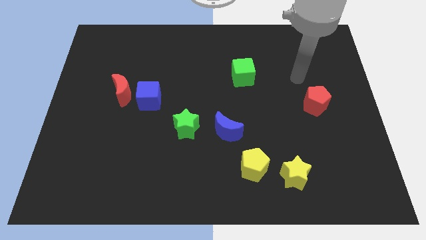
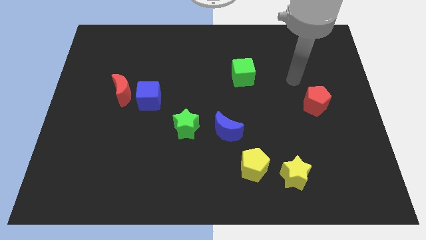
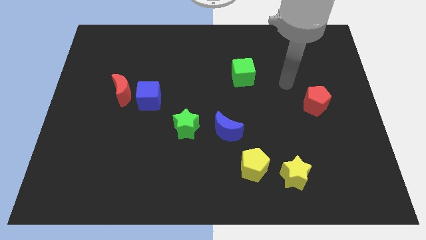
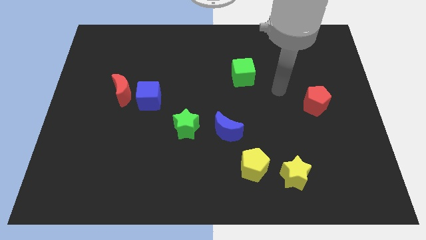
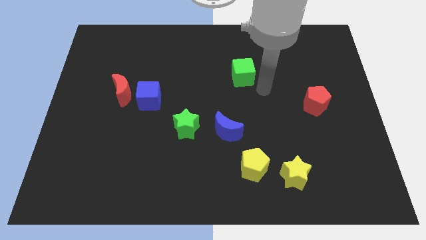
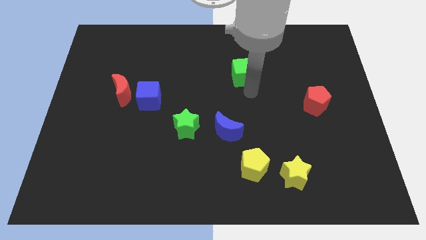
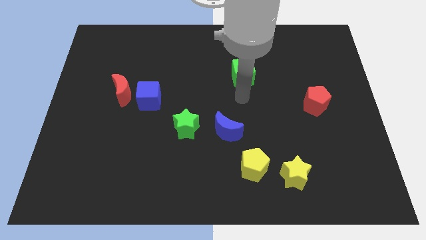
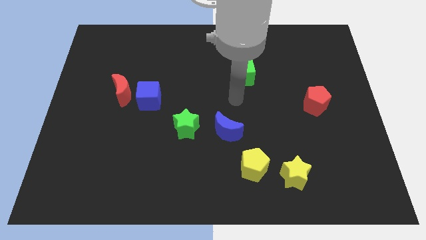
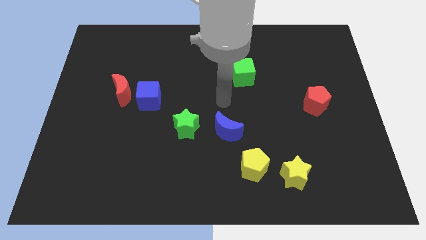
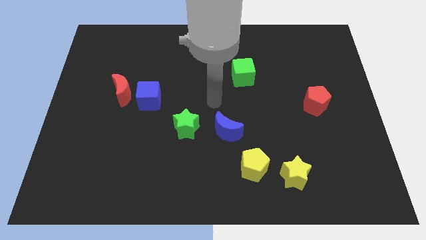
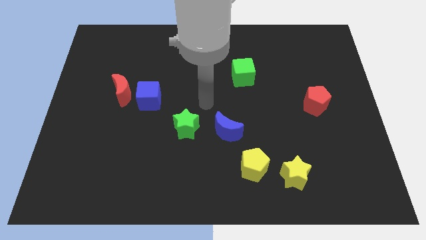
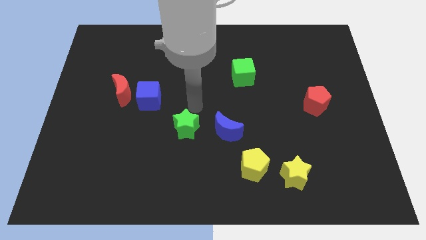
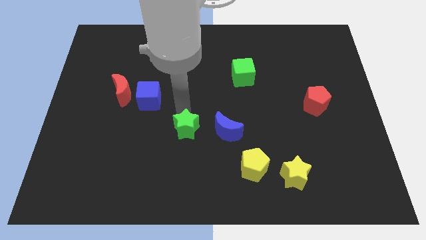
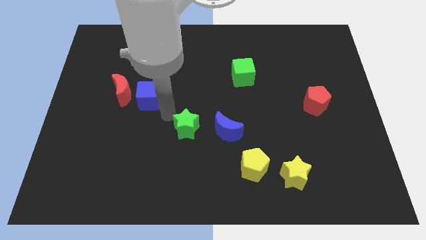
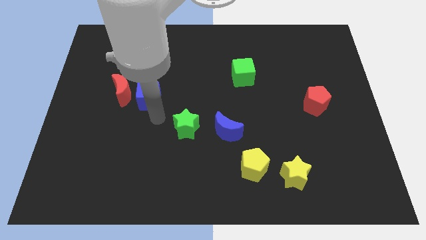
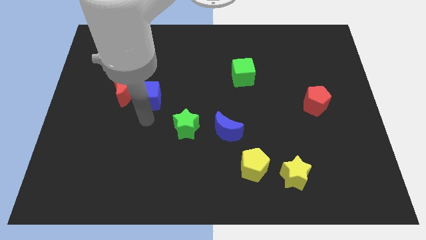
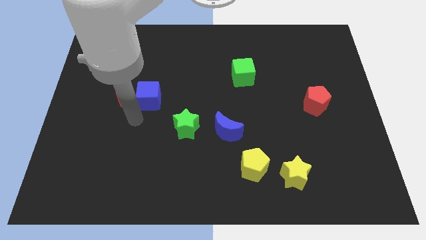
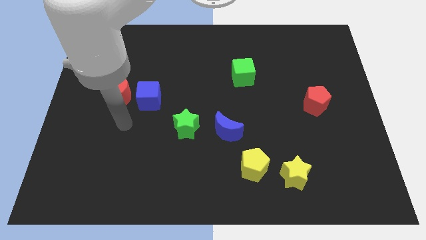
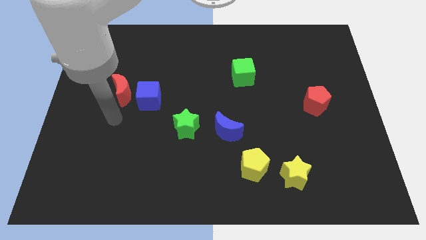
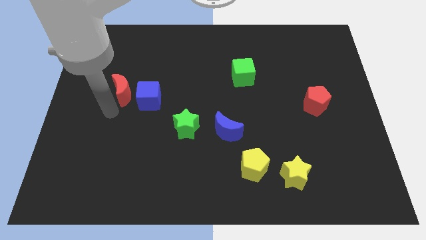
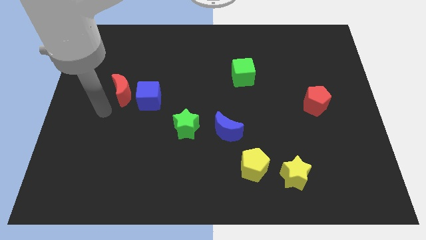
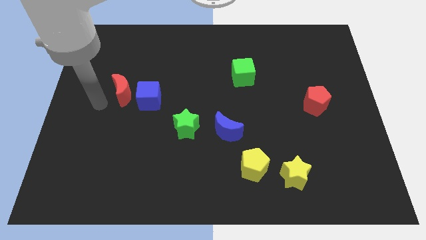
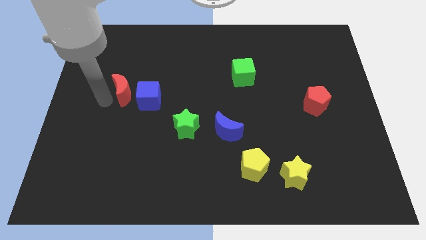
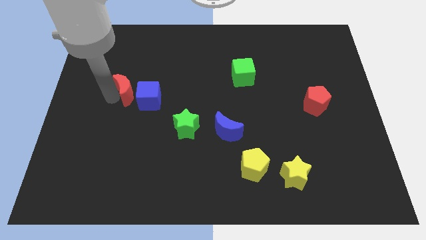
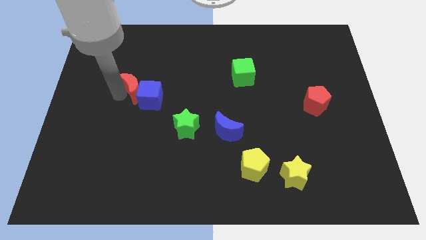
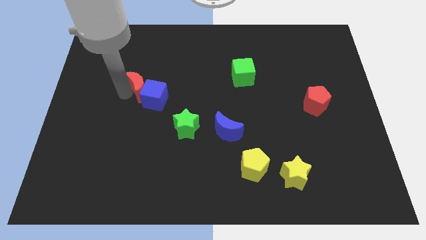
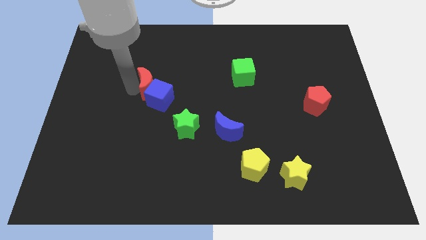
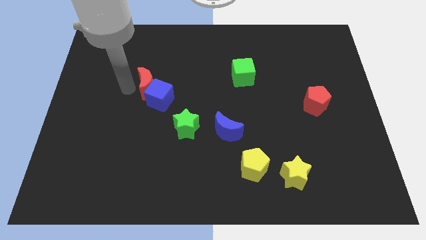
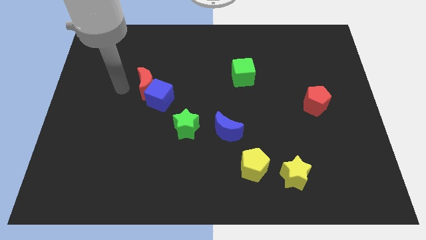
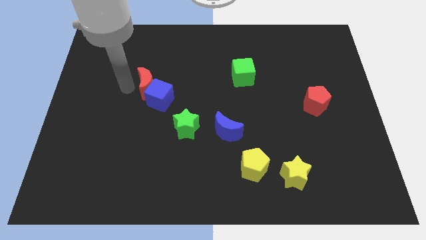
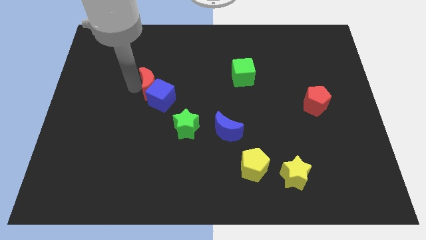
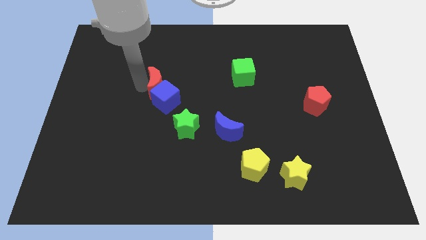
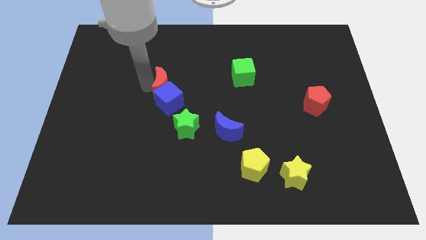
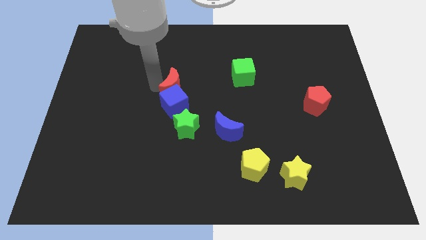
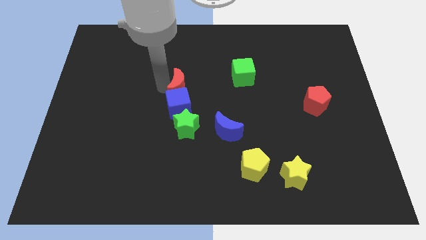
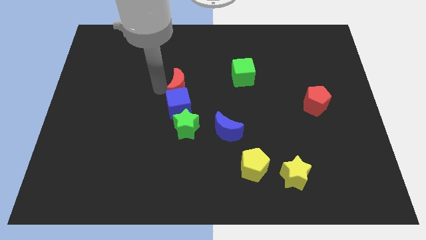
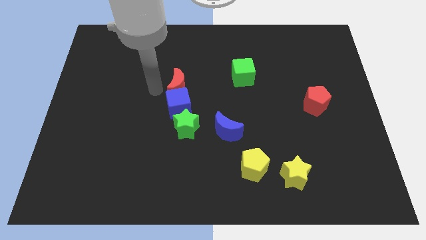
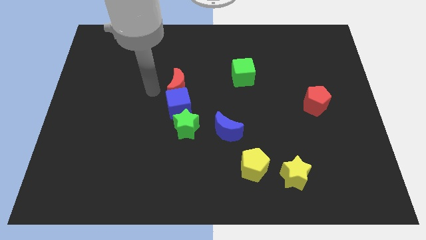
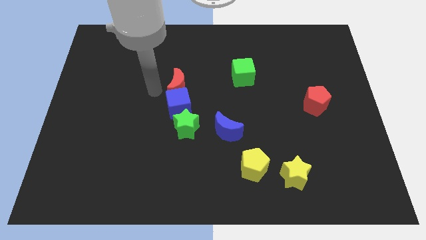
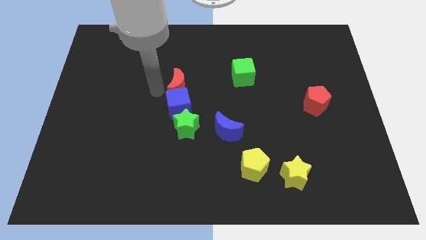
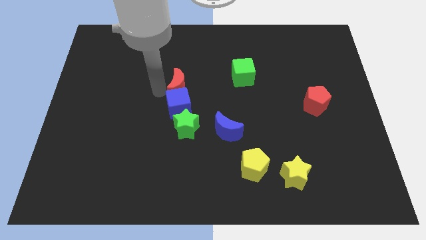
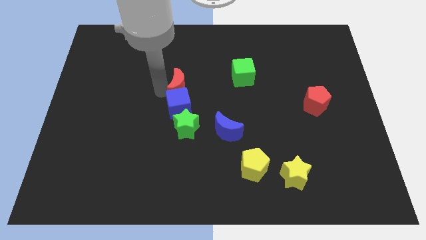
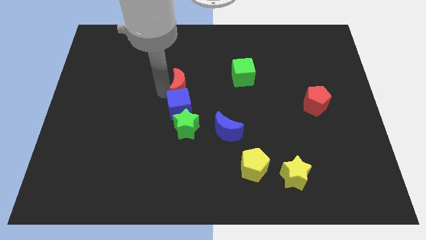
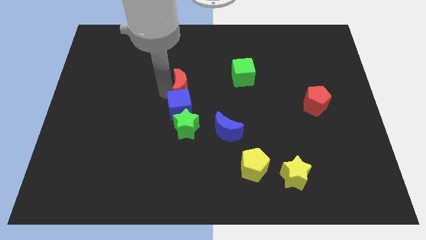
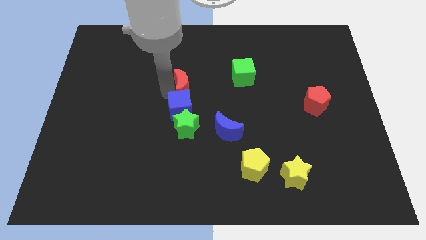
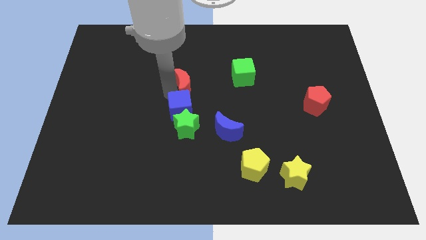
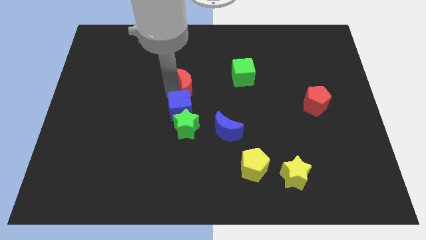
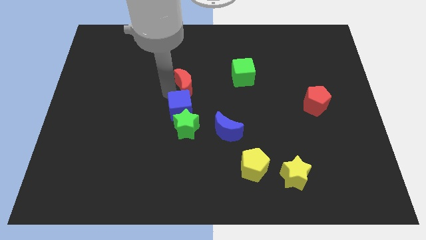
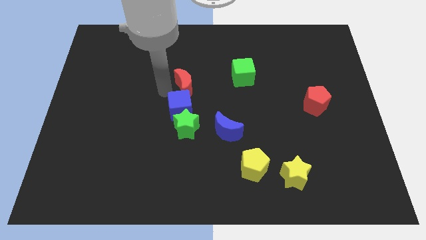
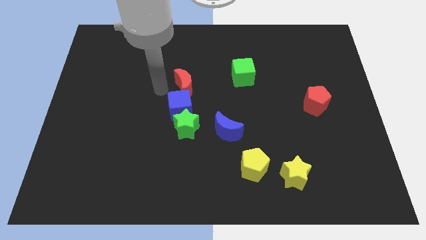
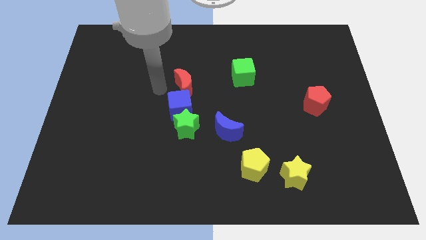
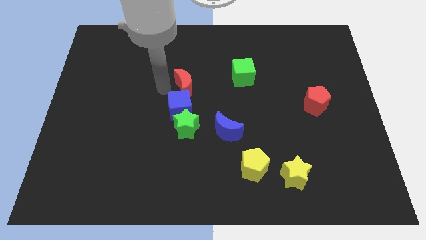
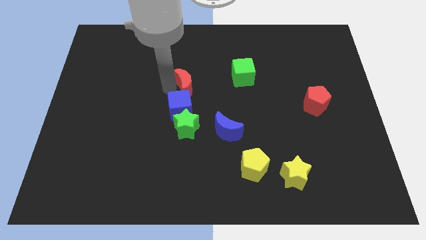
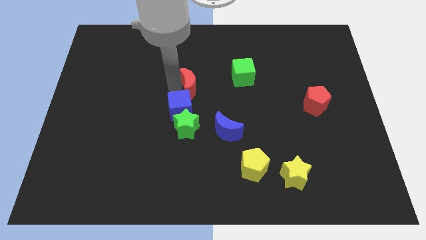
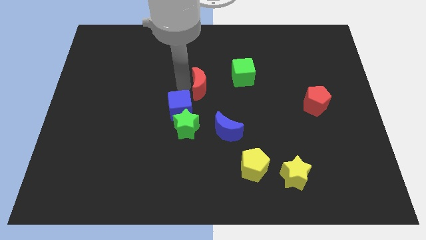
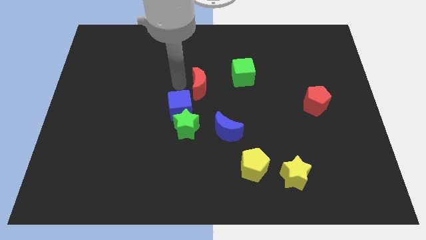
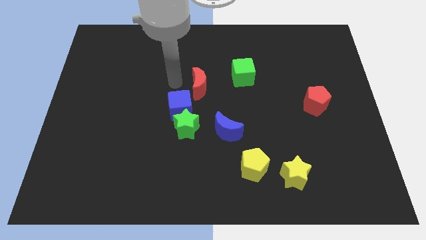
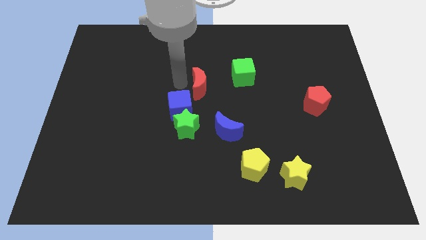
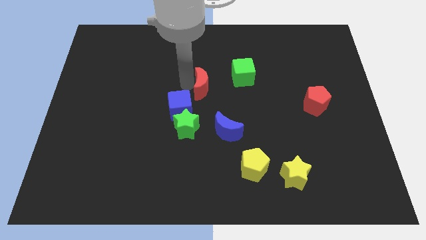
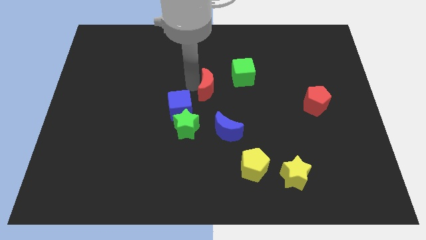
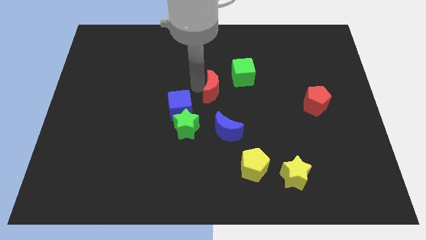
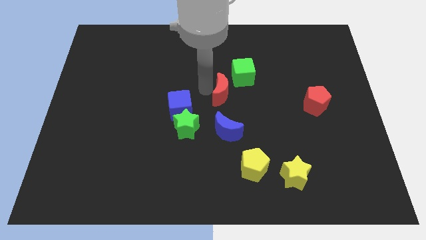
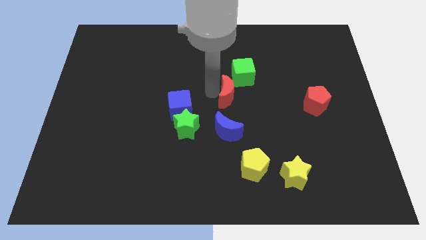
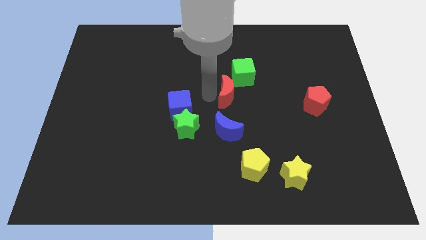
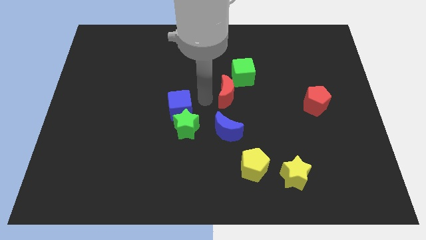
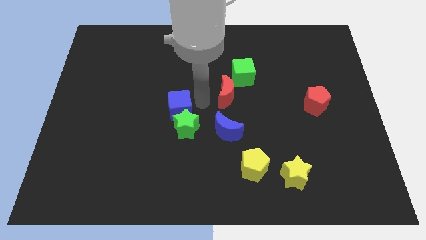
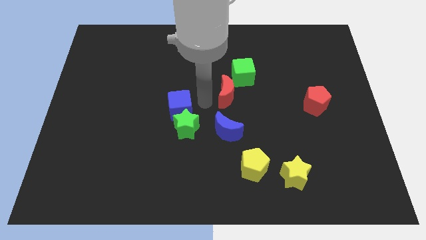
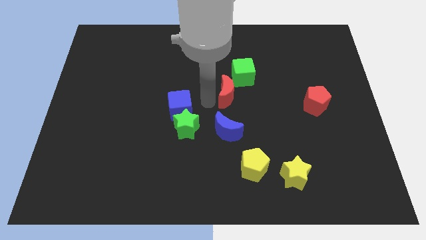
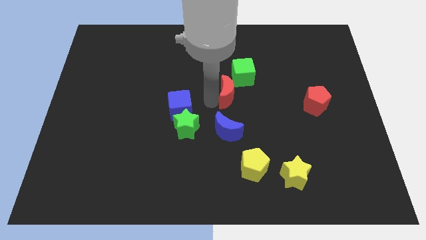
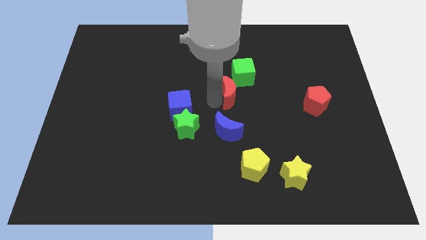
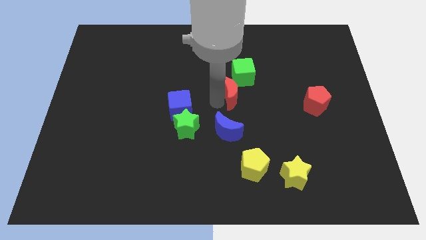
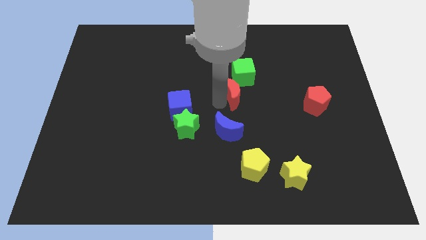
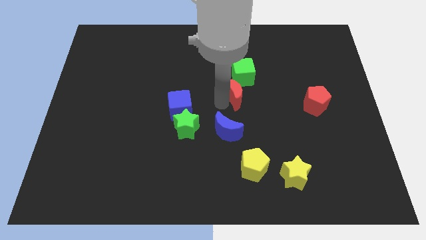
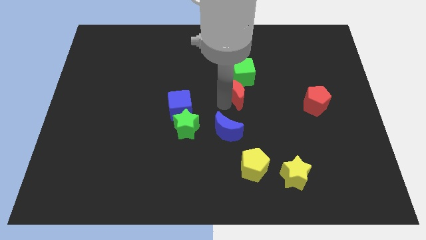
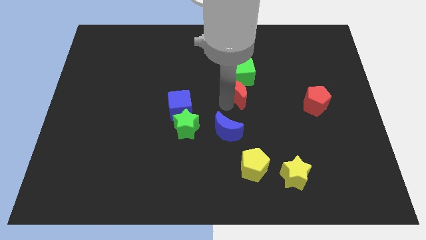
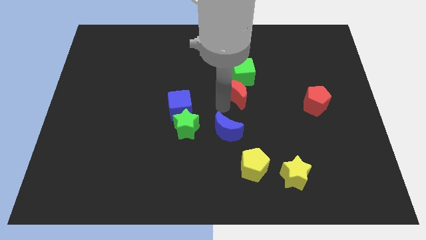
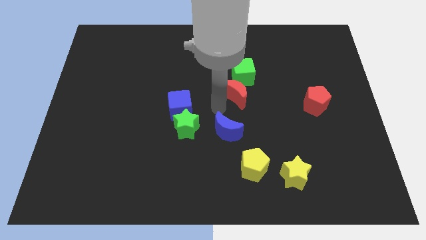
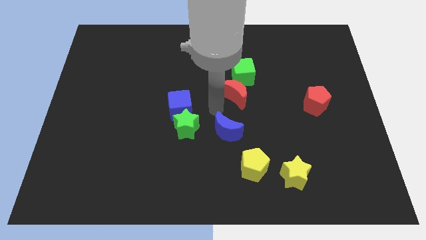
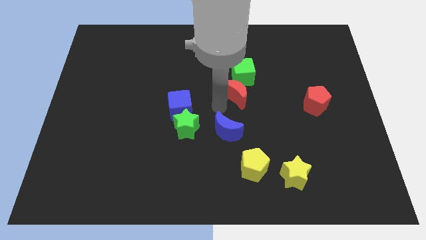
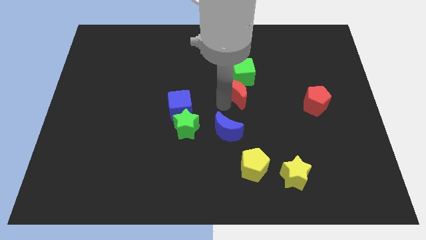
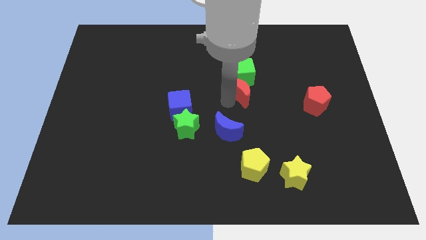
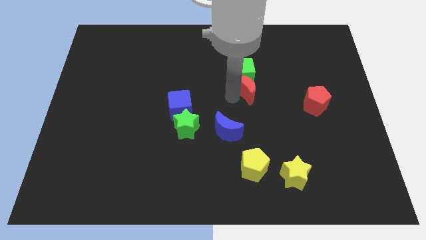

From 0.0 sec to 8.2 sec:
slide the red moon diagonally down and to the right of the green cube
